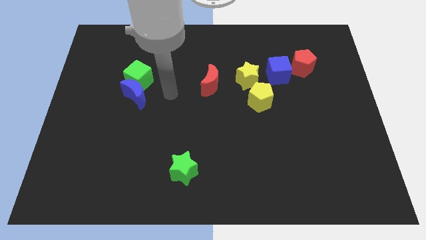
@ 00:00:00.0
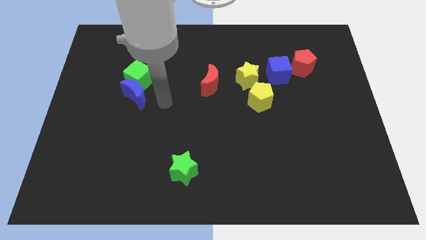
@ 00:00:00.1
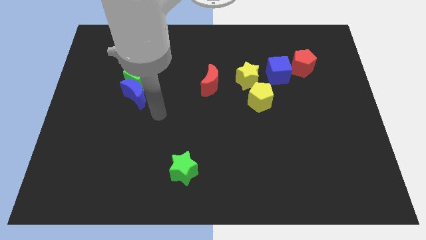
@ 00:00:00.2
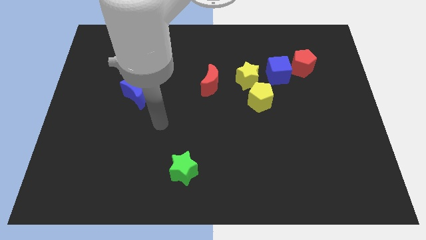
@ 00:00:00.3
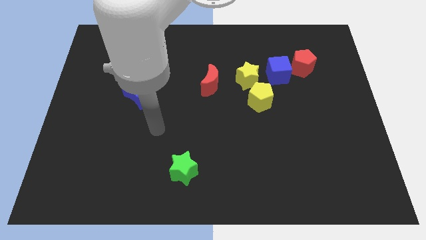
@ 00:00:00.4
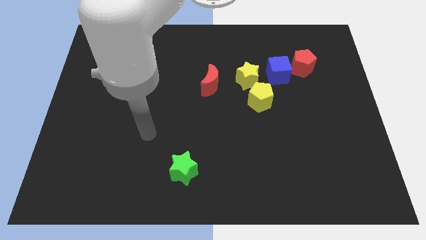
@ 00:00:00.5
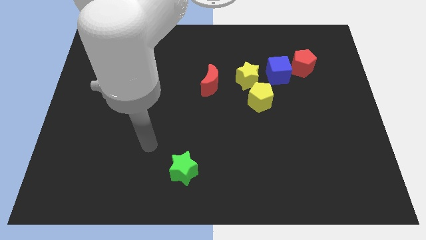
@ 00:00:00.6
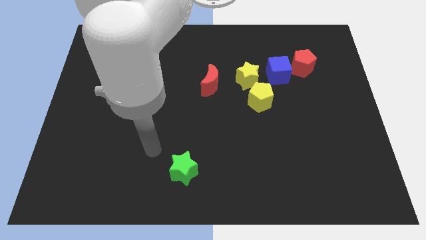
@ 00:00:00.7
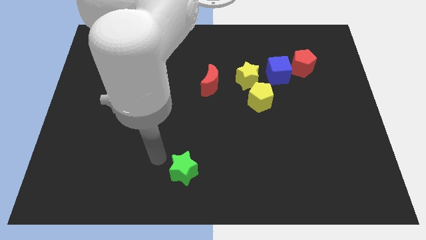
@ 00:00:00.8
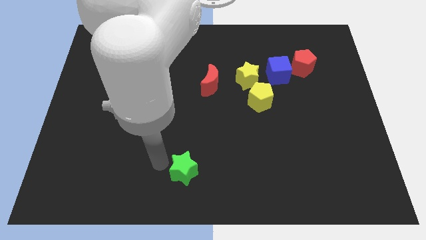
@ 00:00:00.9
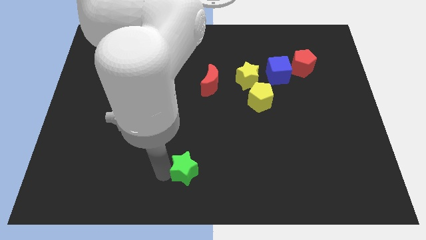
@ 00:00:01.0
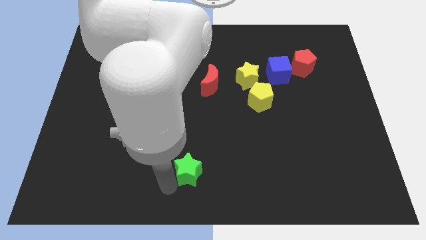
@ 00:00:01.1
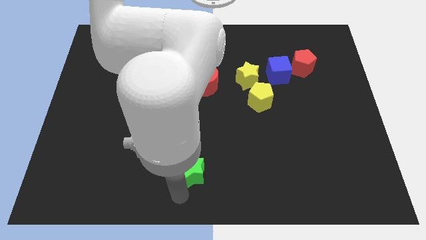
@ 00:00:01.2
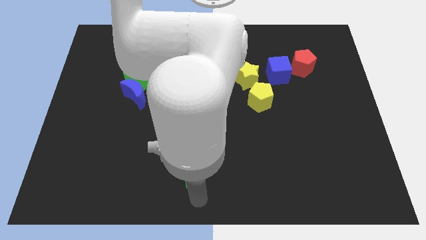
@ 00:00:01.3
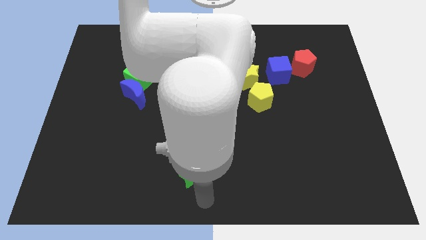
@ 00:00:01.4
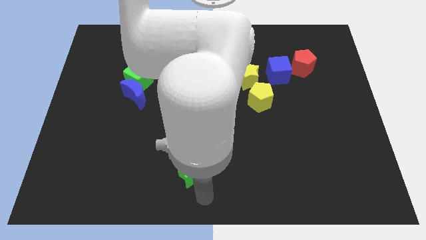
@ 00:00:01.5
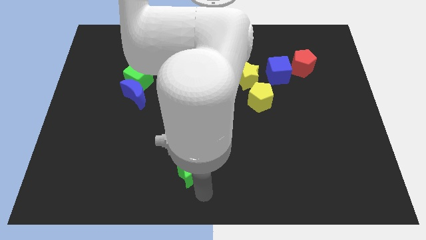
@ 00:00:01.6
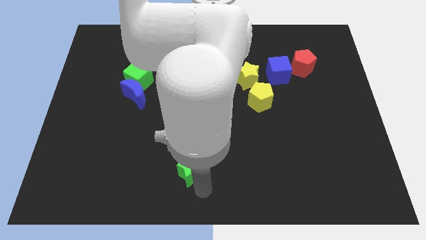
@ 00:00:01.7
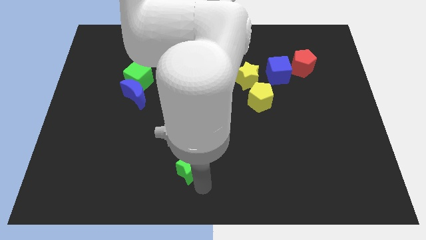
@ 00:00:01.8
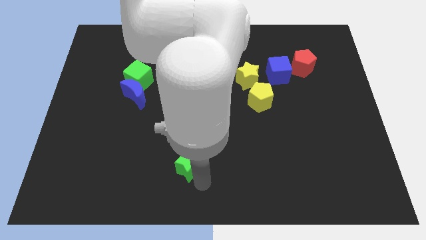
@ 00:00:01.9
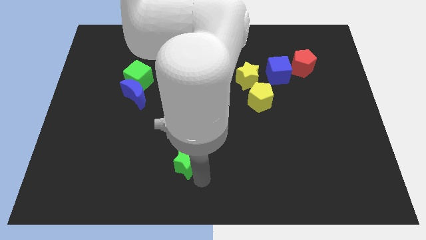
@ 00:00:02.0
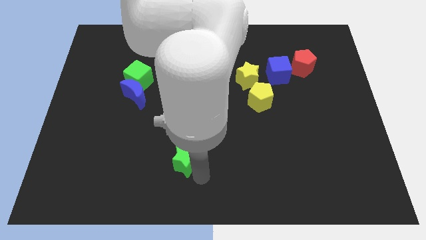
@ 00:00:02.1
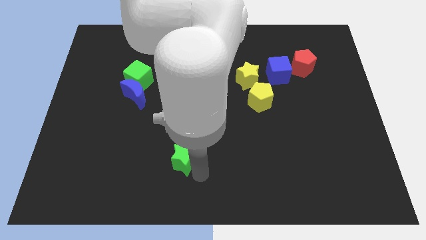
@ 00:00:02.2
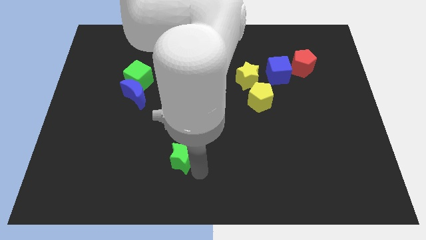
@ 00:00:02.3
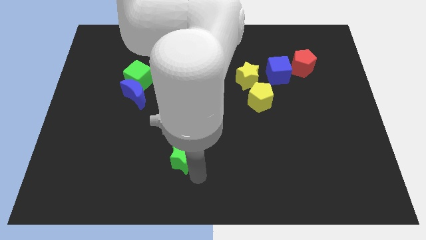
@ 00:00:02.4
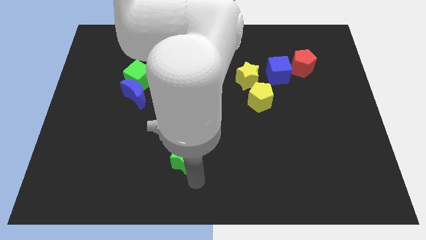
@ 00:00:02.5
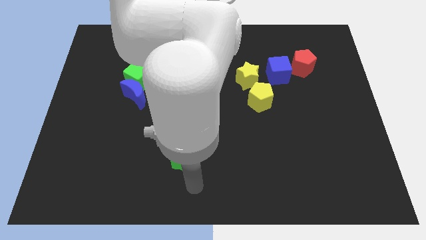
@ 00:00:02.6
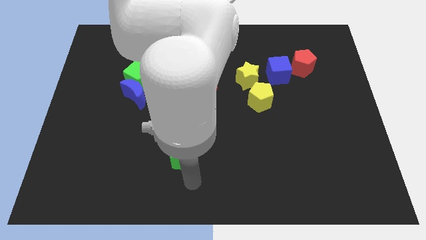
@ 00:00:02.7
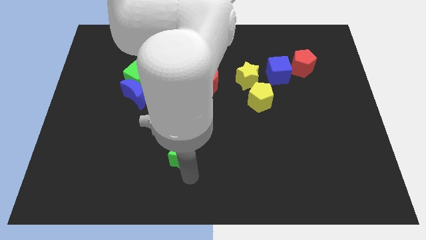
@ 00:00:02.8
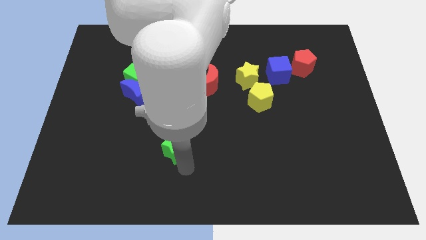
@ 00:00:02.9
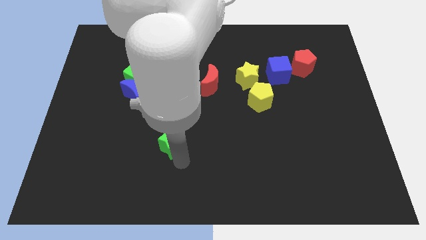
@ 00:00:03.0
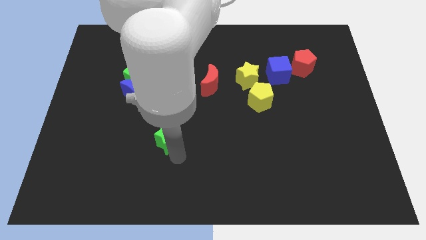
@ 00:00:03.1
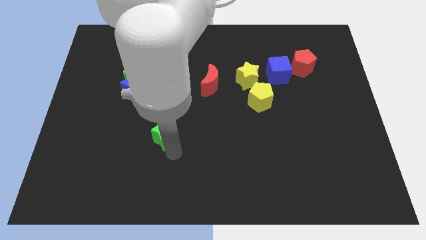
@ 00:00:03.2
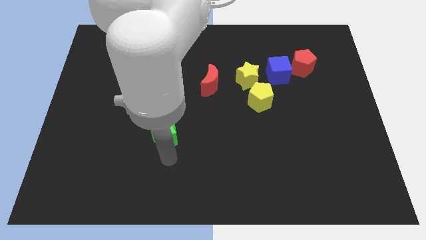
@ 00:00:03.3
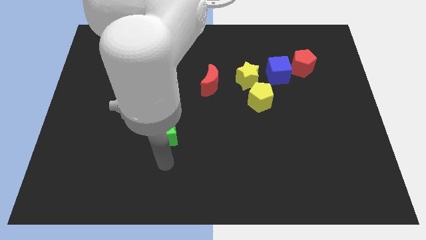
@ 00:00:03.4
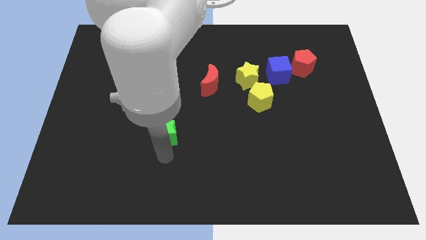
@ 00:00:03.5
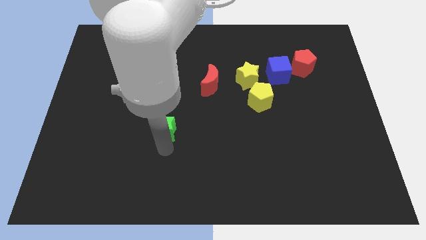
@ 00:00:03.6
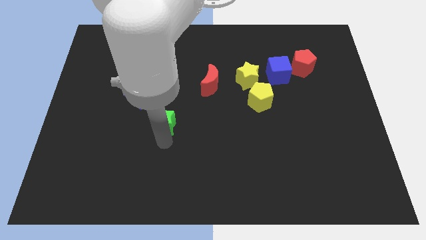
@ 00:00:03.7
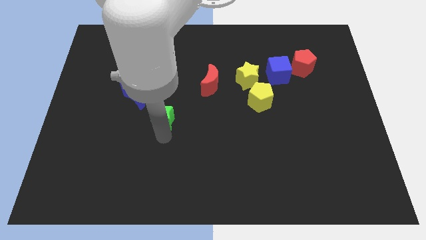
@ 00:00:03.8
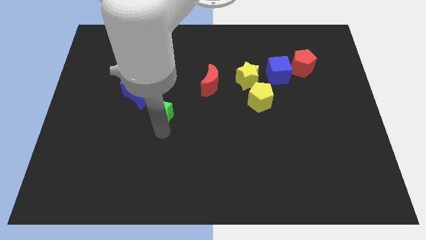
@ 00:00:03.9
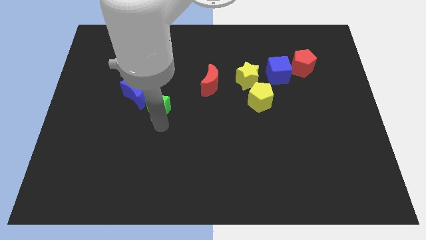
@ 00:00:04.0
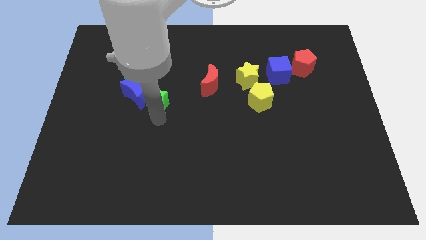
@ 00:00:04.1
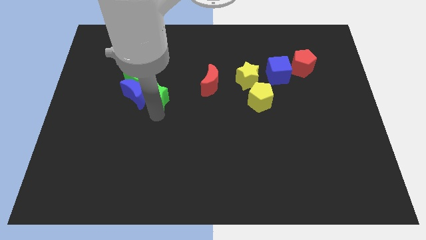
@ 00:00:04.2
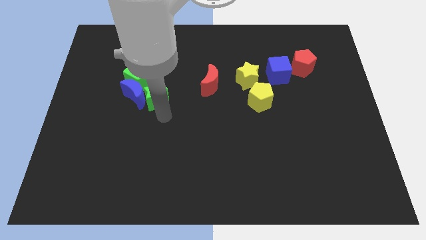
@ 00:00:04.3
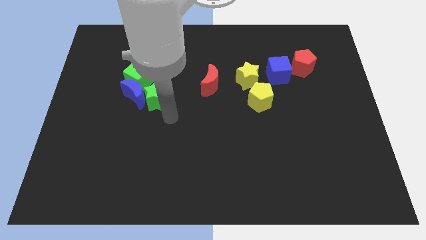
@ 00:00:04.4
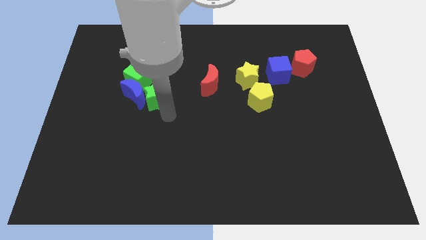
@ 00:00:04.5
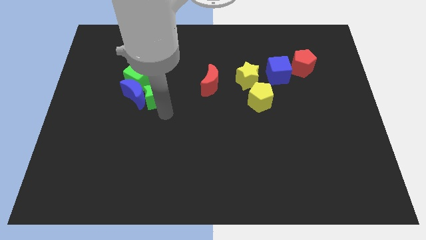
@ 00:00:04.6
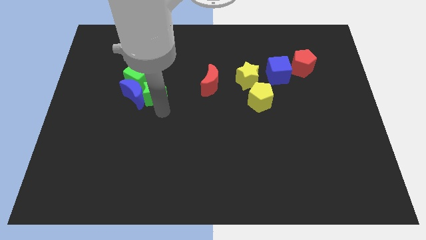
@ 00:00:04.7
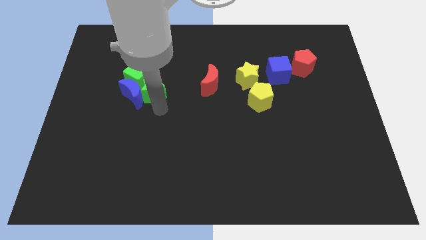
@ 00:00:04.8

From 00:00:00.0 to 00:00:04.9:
slide the green star to the green cube

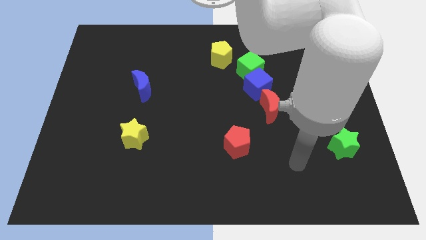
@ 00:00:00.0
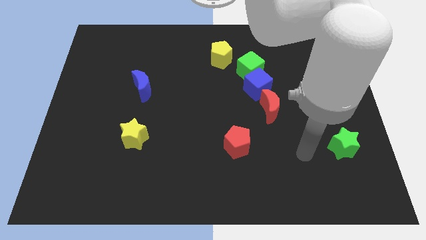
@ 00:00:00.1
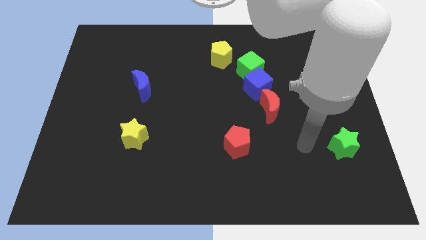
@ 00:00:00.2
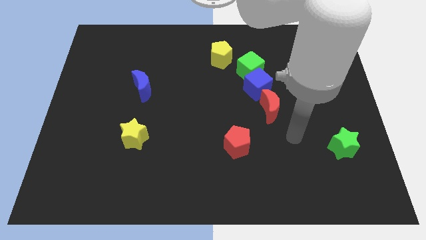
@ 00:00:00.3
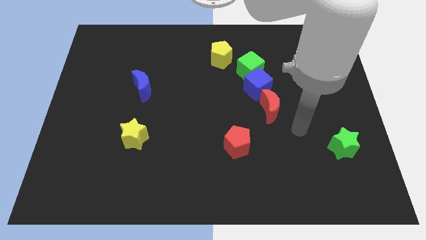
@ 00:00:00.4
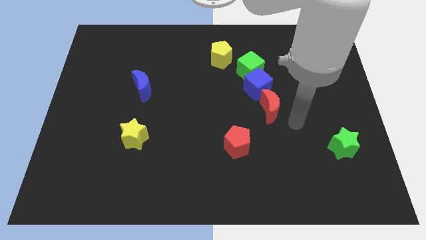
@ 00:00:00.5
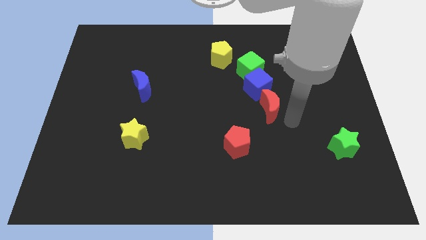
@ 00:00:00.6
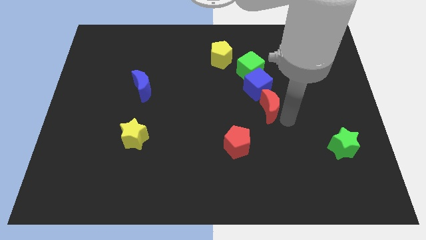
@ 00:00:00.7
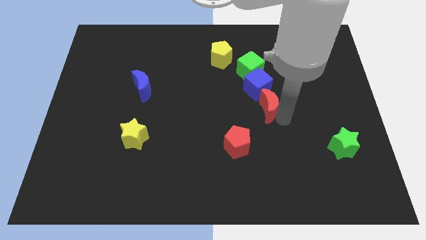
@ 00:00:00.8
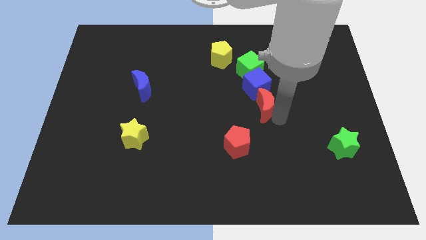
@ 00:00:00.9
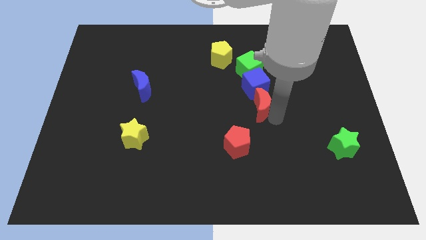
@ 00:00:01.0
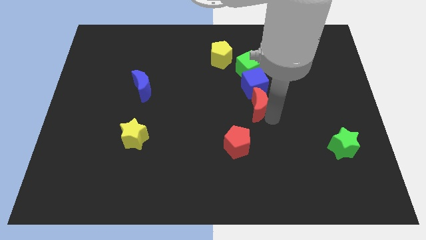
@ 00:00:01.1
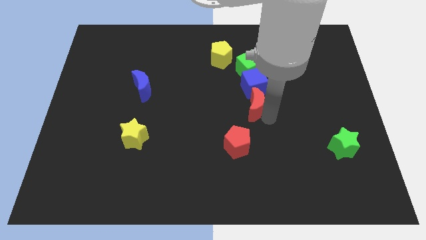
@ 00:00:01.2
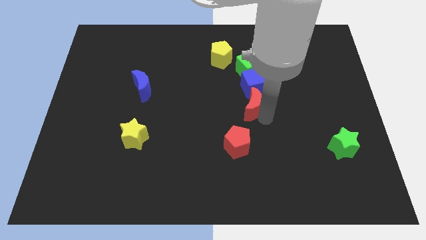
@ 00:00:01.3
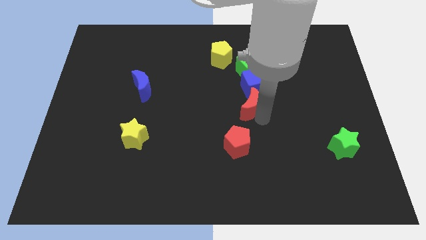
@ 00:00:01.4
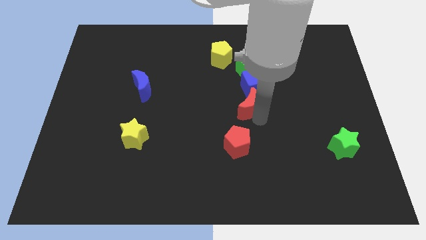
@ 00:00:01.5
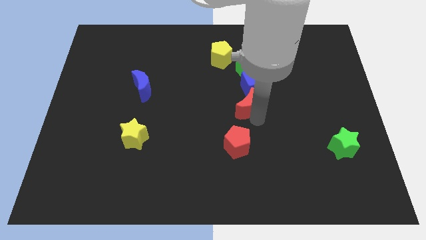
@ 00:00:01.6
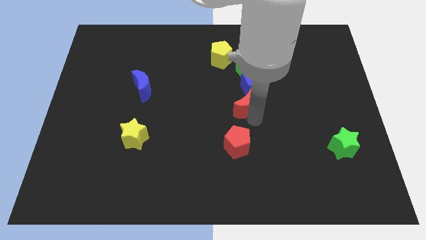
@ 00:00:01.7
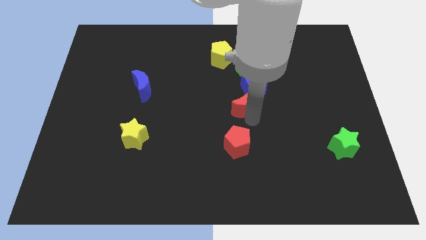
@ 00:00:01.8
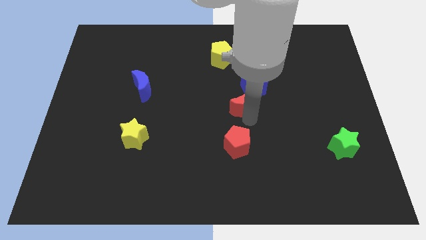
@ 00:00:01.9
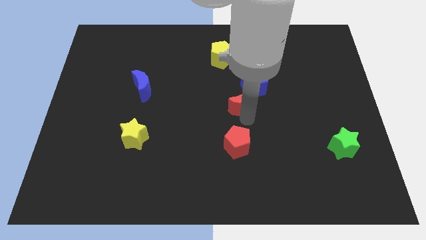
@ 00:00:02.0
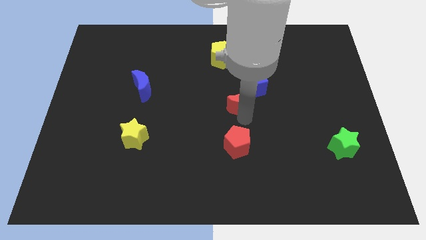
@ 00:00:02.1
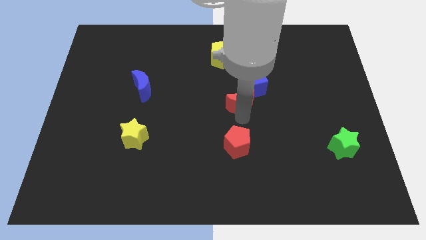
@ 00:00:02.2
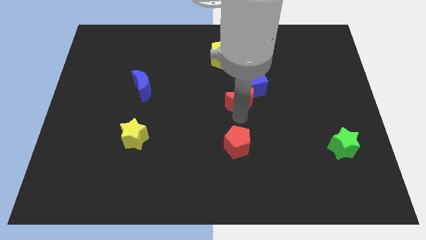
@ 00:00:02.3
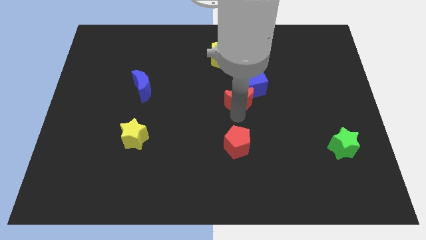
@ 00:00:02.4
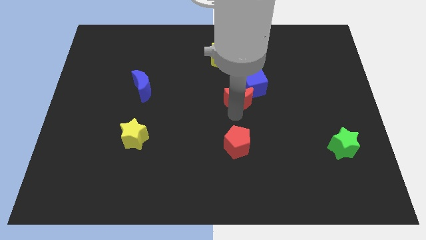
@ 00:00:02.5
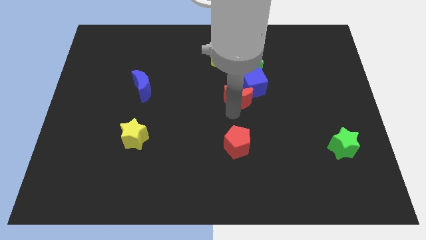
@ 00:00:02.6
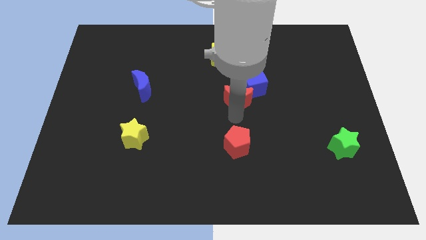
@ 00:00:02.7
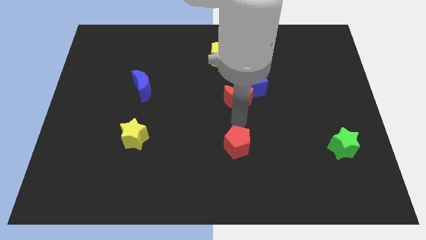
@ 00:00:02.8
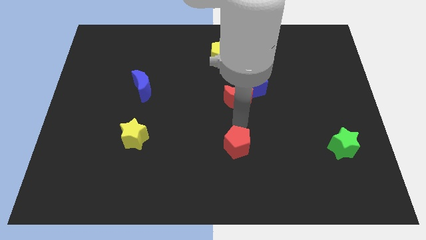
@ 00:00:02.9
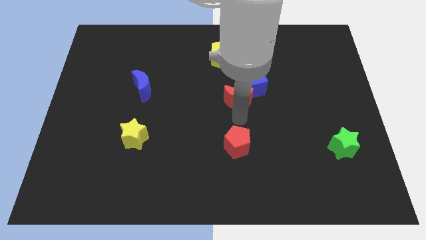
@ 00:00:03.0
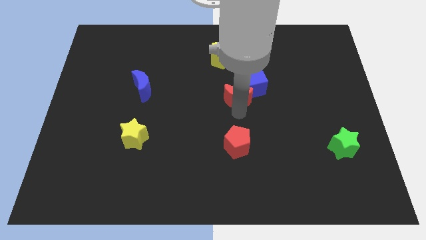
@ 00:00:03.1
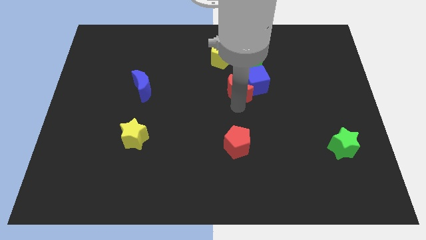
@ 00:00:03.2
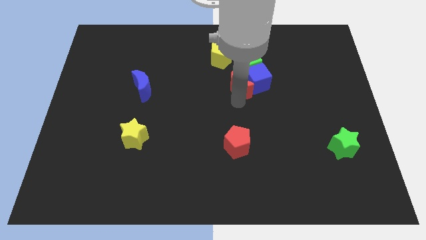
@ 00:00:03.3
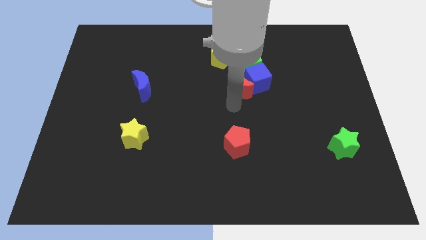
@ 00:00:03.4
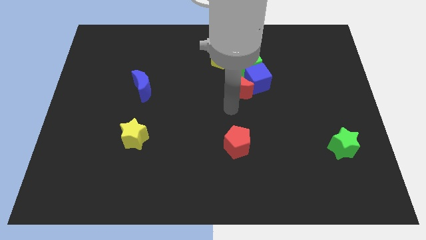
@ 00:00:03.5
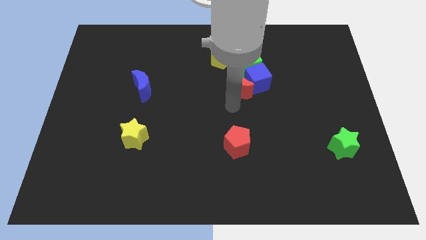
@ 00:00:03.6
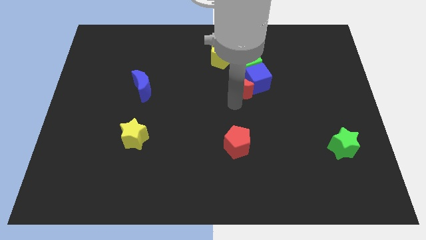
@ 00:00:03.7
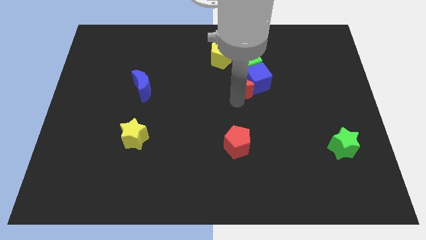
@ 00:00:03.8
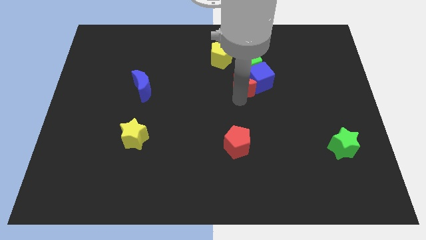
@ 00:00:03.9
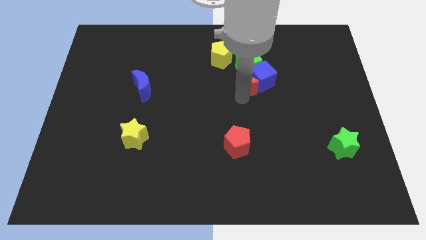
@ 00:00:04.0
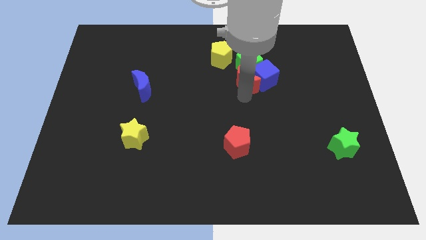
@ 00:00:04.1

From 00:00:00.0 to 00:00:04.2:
put the red moon close to the green cube
